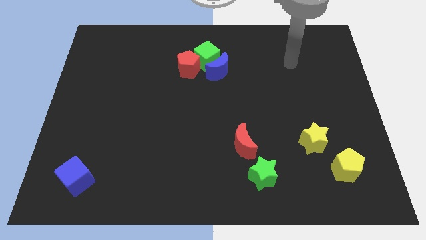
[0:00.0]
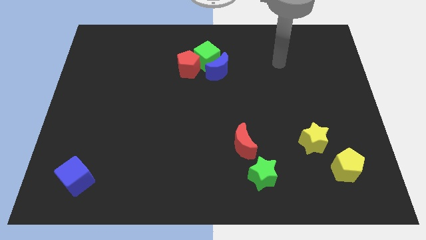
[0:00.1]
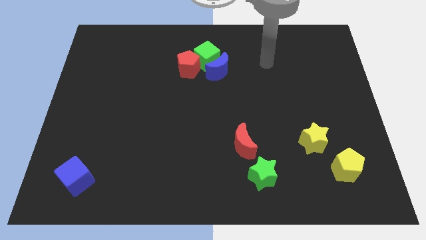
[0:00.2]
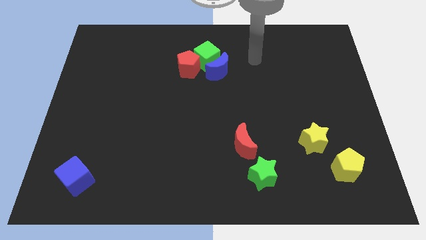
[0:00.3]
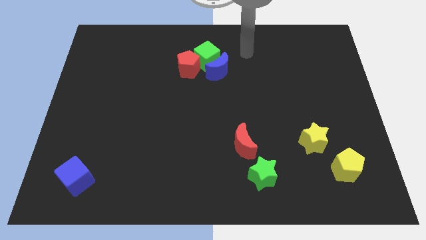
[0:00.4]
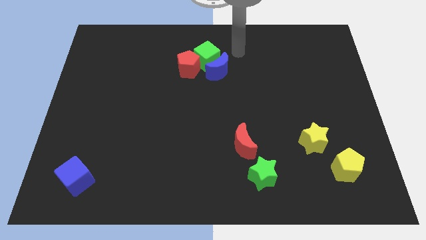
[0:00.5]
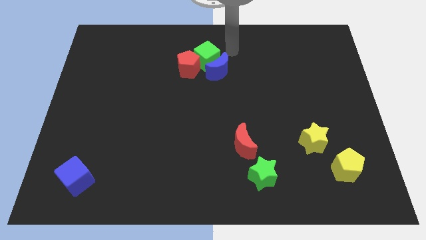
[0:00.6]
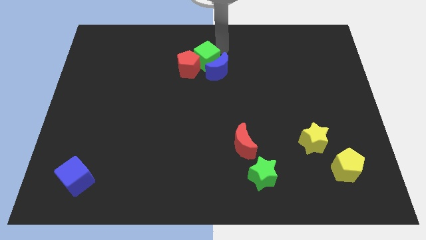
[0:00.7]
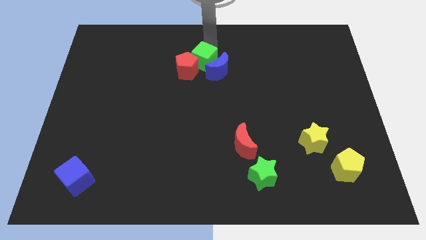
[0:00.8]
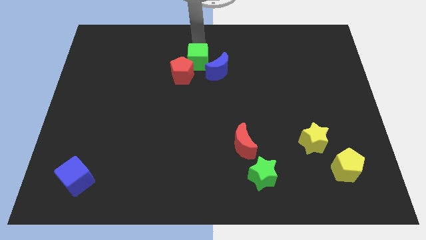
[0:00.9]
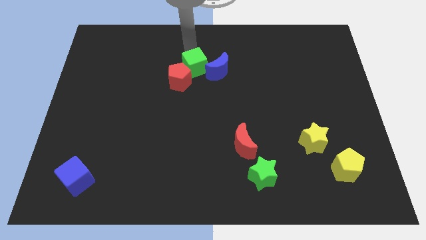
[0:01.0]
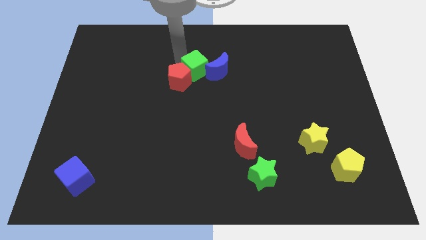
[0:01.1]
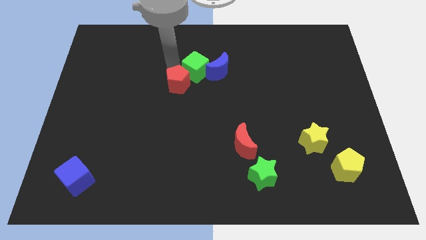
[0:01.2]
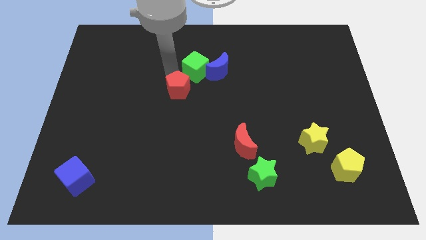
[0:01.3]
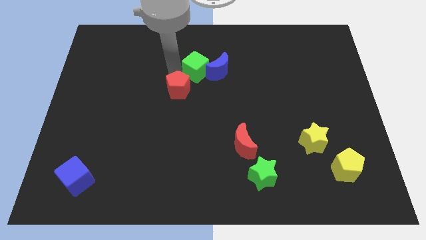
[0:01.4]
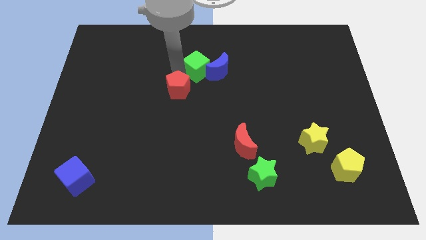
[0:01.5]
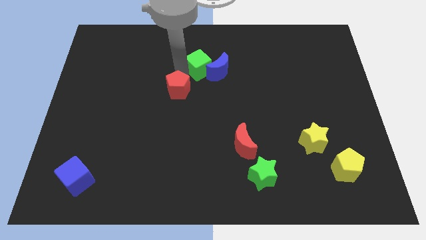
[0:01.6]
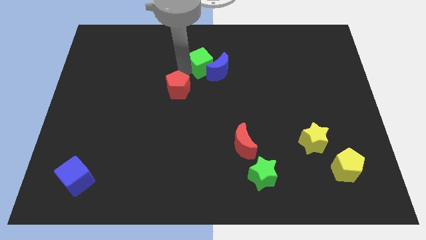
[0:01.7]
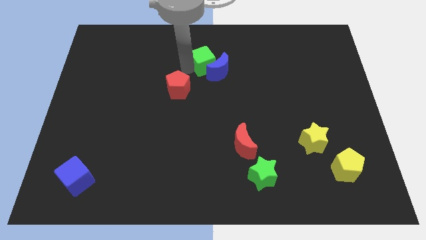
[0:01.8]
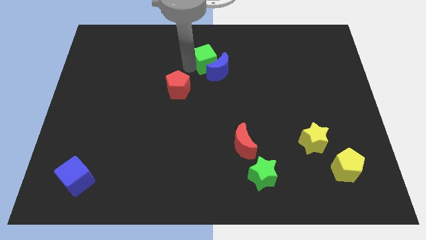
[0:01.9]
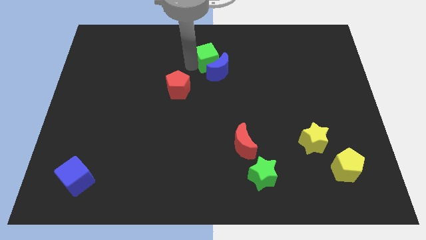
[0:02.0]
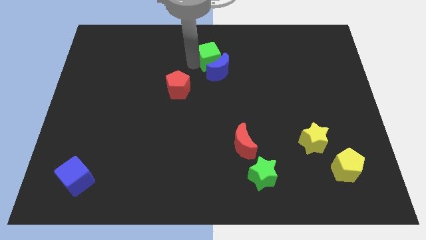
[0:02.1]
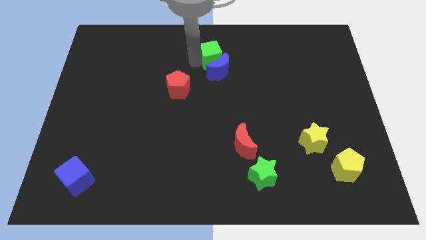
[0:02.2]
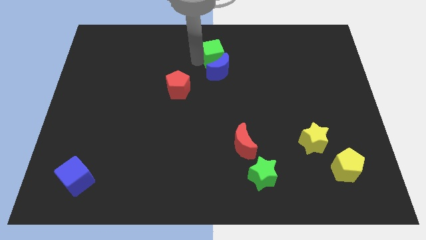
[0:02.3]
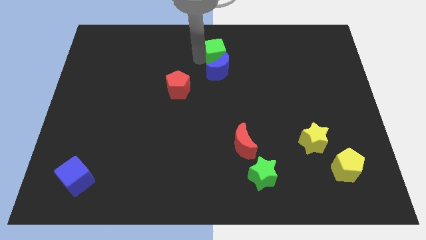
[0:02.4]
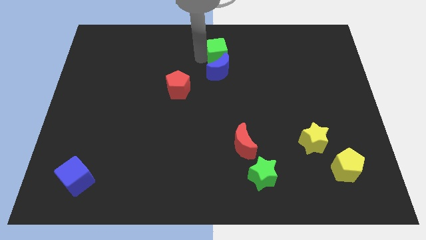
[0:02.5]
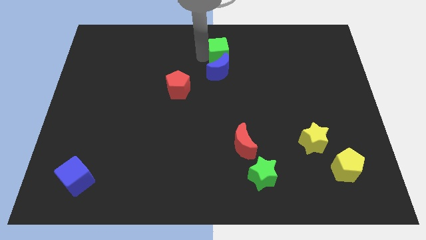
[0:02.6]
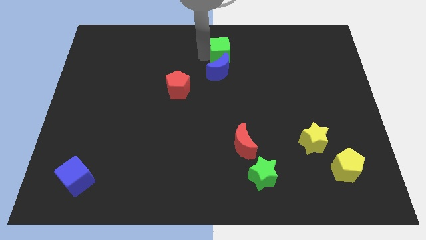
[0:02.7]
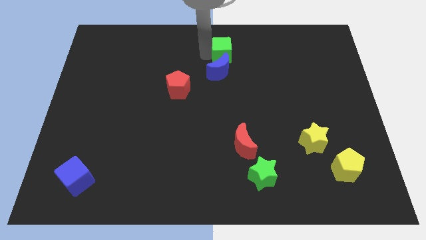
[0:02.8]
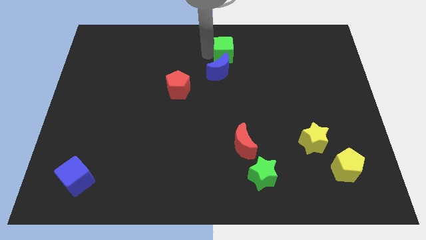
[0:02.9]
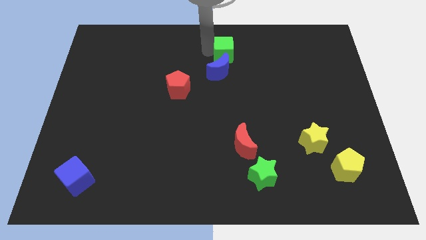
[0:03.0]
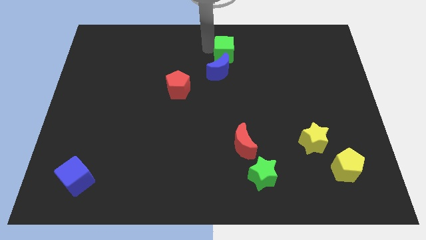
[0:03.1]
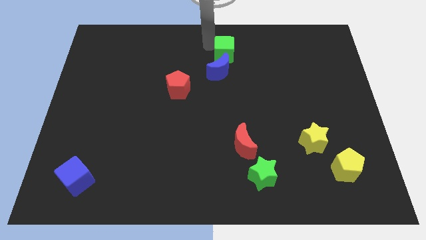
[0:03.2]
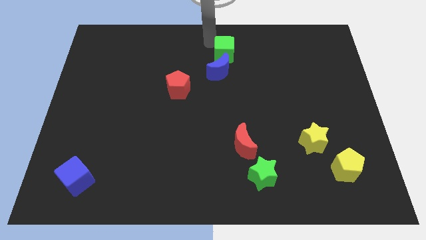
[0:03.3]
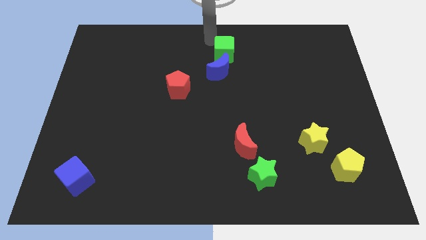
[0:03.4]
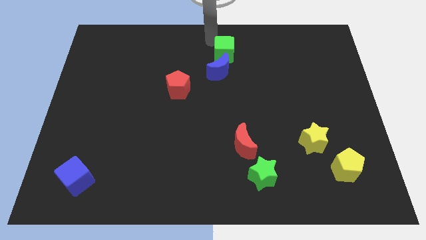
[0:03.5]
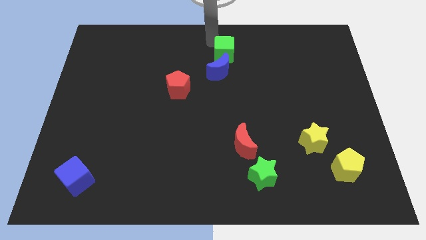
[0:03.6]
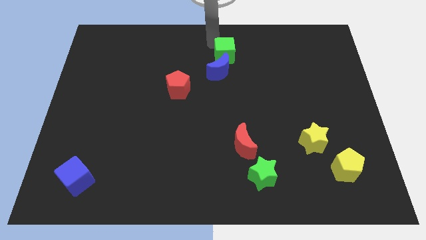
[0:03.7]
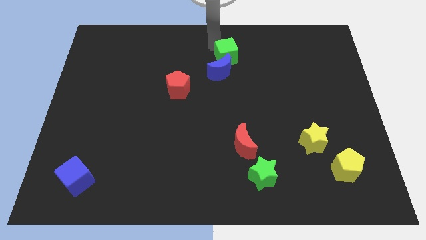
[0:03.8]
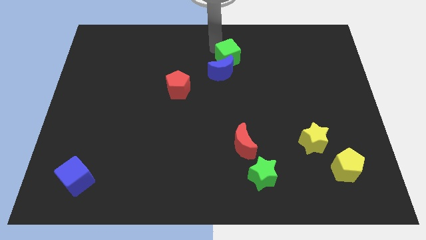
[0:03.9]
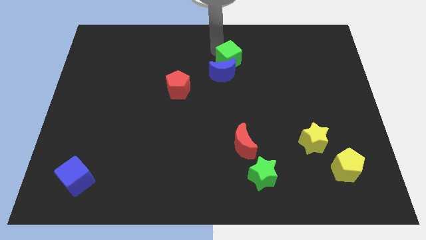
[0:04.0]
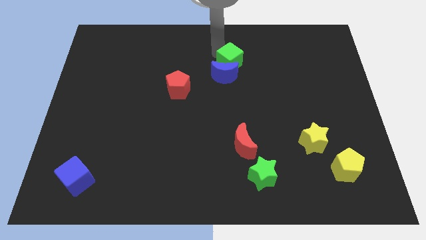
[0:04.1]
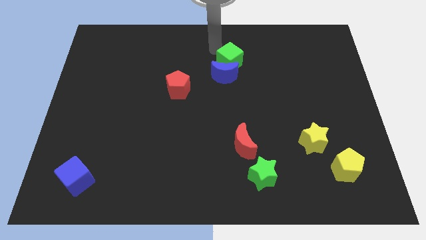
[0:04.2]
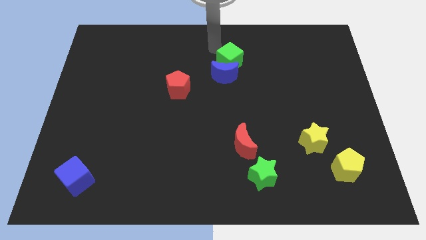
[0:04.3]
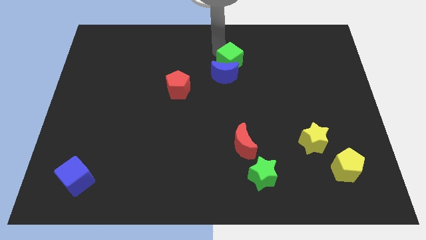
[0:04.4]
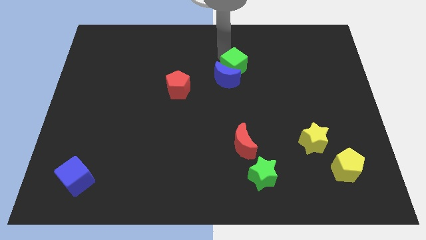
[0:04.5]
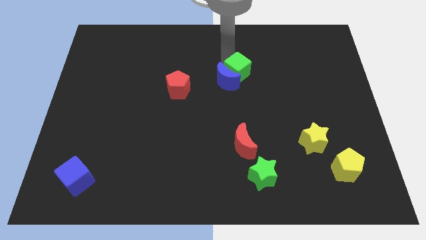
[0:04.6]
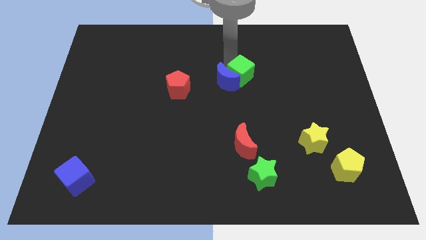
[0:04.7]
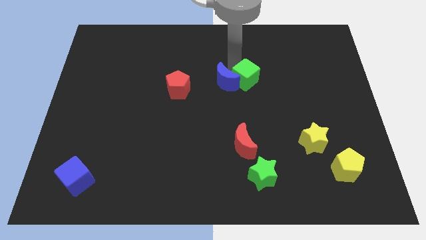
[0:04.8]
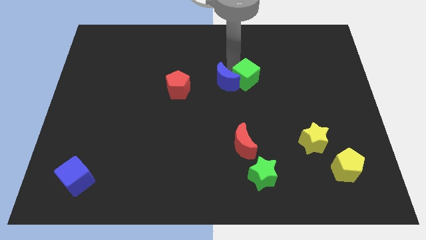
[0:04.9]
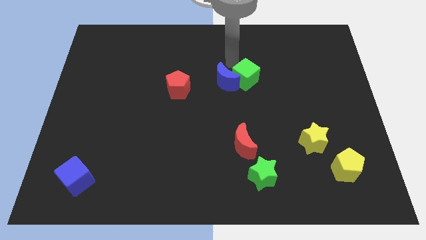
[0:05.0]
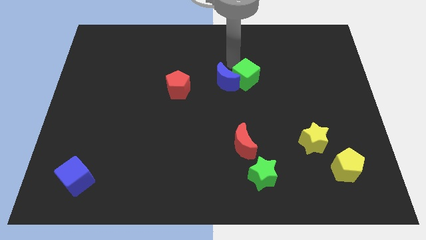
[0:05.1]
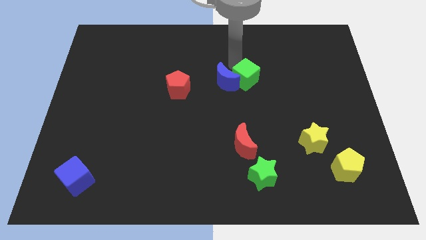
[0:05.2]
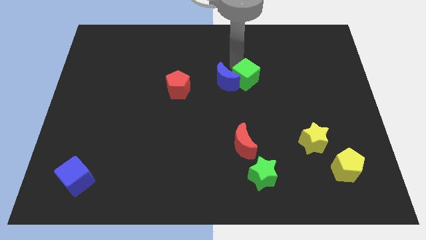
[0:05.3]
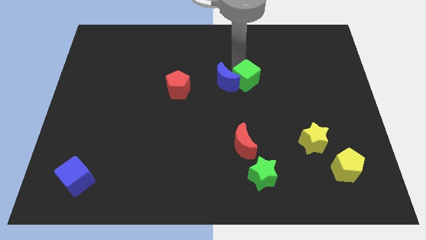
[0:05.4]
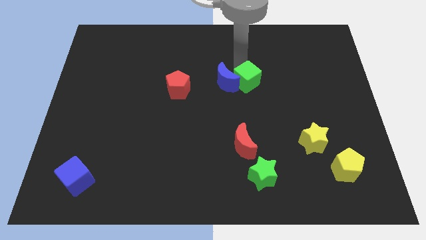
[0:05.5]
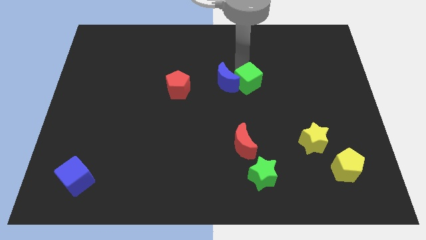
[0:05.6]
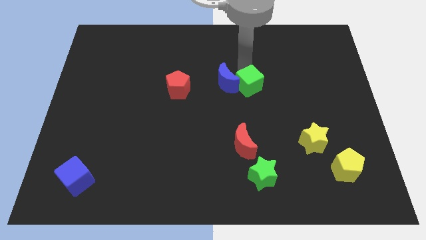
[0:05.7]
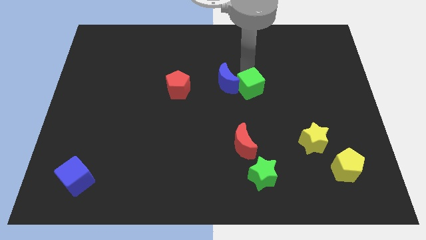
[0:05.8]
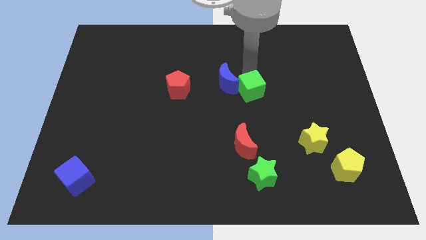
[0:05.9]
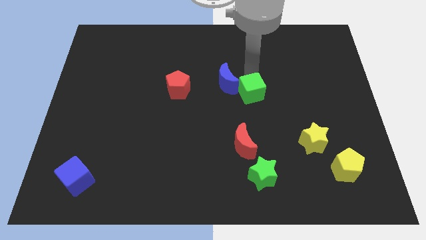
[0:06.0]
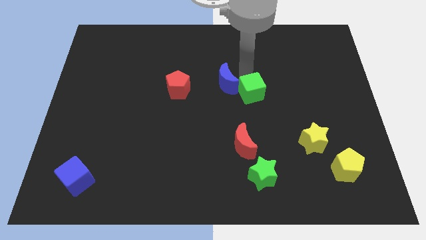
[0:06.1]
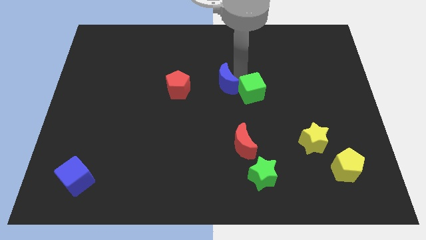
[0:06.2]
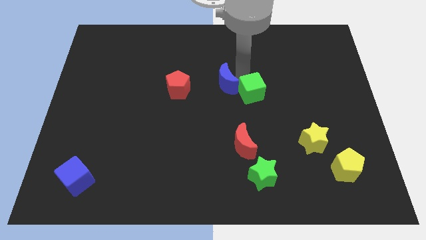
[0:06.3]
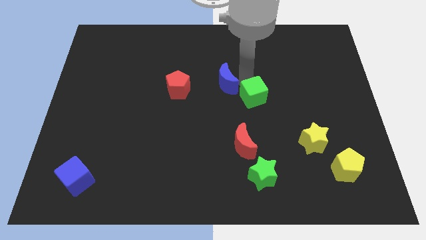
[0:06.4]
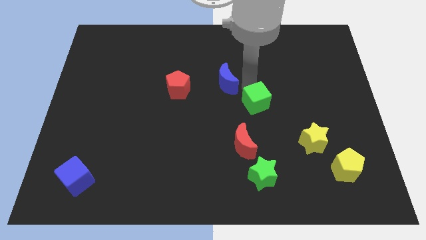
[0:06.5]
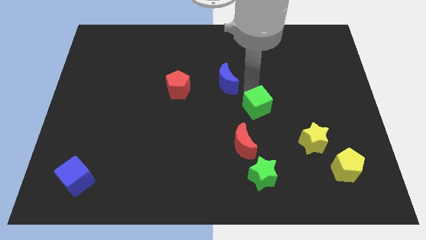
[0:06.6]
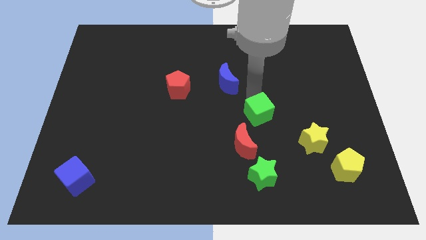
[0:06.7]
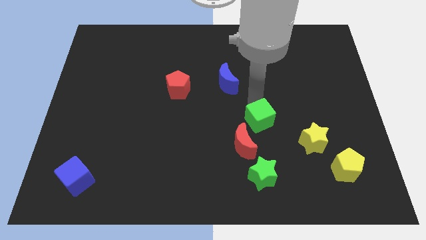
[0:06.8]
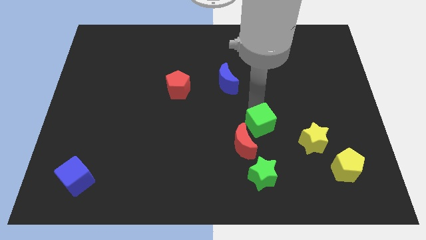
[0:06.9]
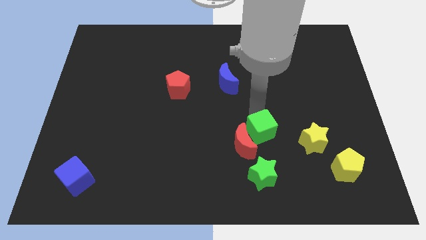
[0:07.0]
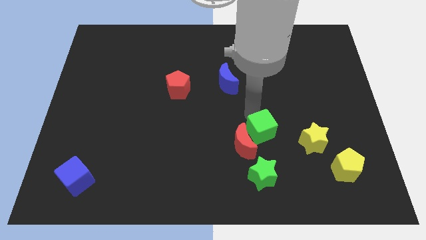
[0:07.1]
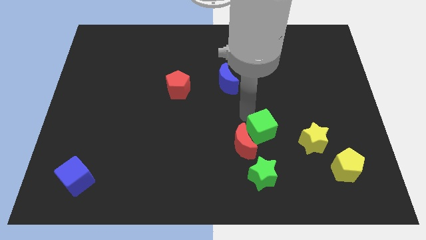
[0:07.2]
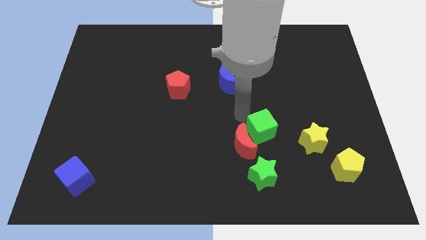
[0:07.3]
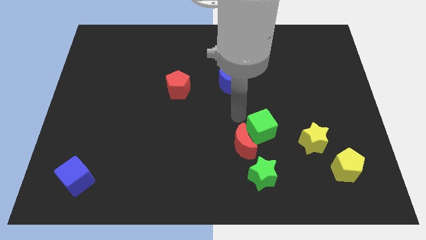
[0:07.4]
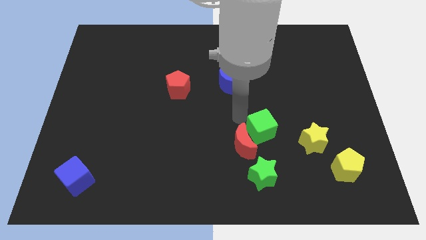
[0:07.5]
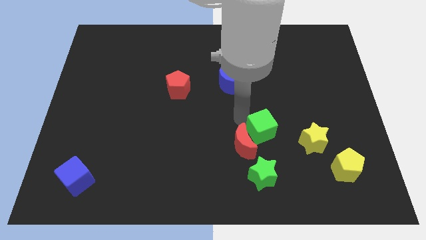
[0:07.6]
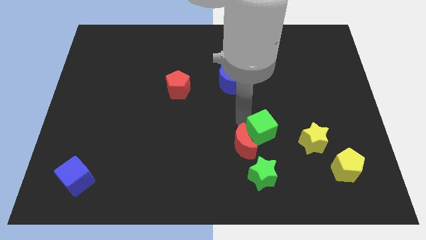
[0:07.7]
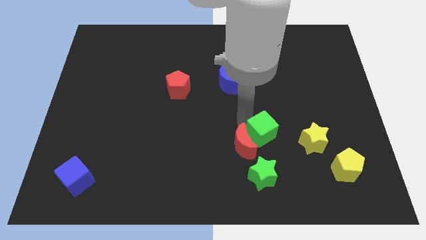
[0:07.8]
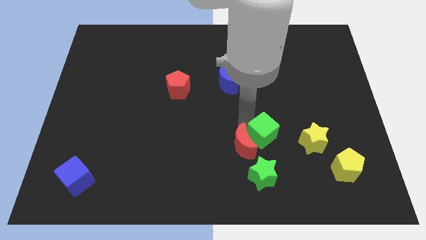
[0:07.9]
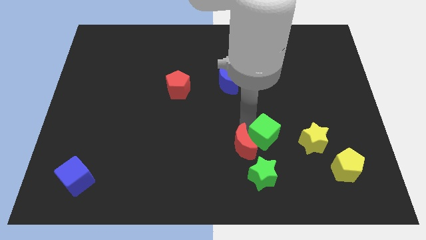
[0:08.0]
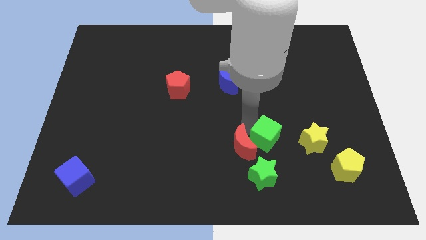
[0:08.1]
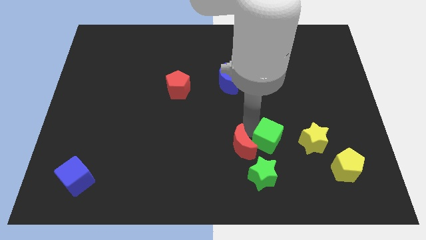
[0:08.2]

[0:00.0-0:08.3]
push the green cube diagonally up and to the right of the green star
